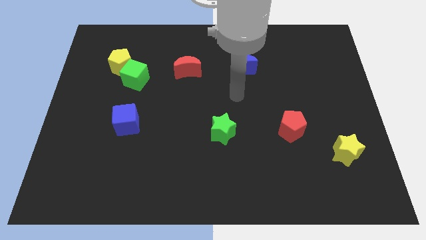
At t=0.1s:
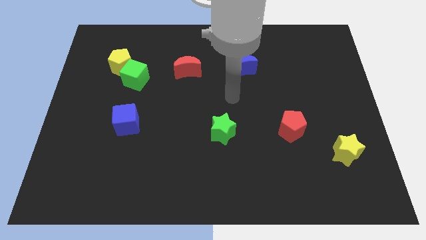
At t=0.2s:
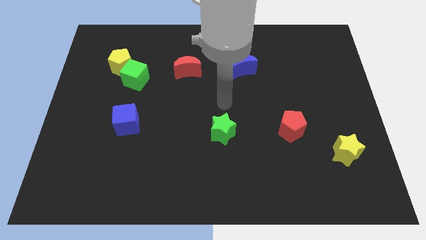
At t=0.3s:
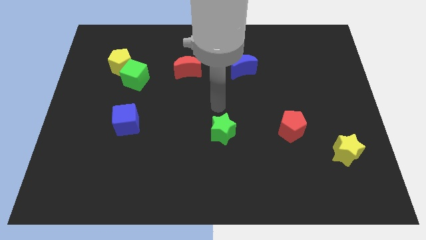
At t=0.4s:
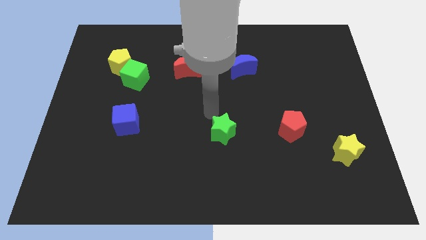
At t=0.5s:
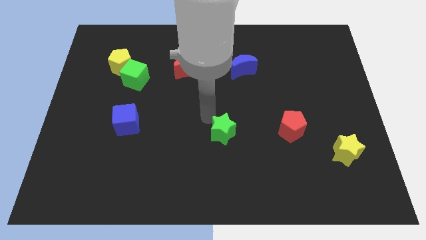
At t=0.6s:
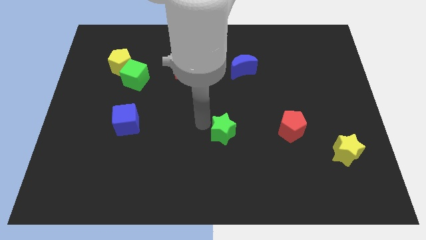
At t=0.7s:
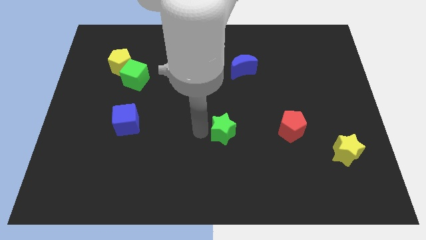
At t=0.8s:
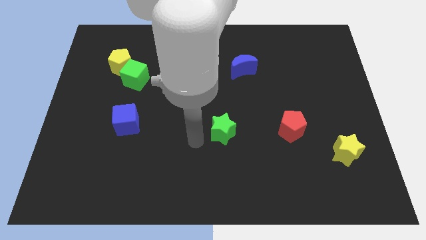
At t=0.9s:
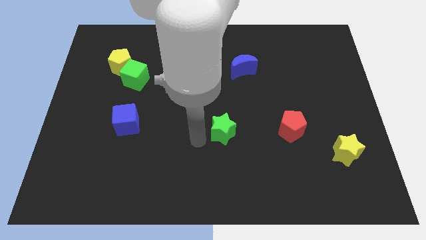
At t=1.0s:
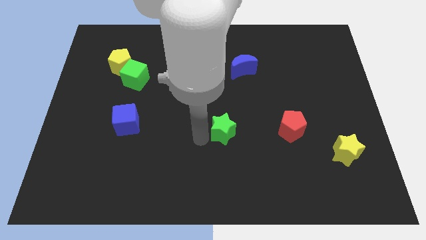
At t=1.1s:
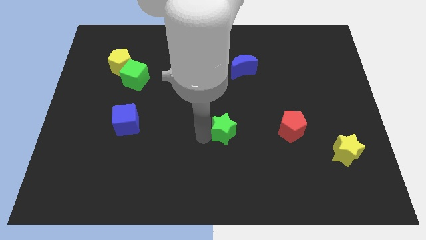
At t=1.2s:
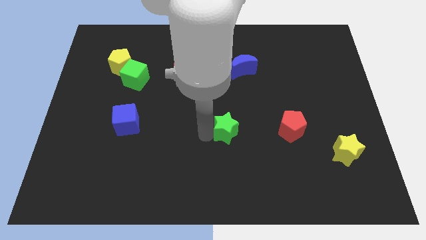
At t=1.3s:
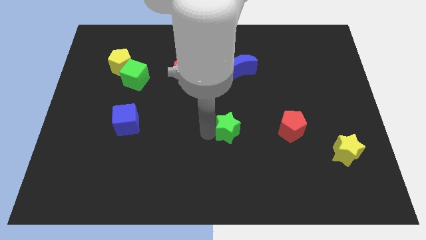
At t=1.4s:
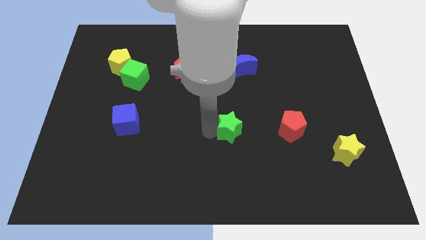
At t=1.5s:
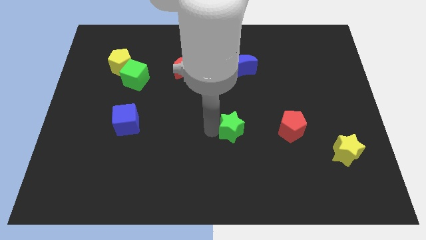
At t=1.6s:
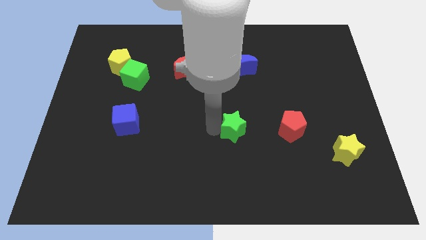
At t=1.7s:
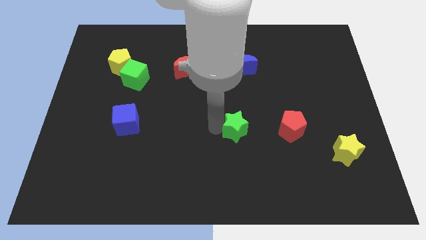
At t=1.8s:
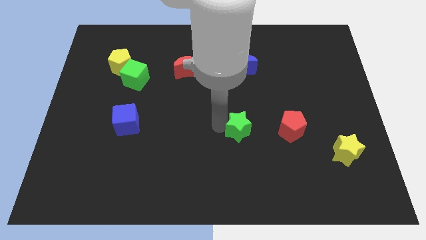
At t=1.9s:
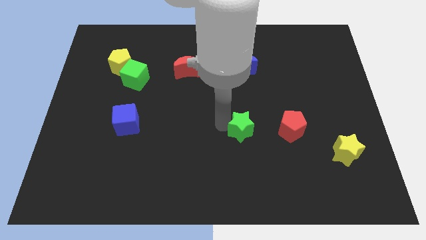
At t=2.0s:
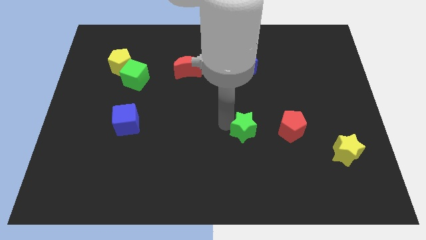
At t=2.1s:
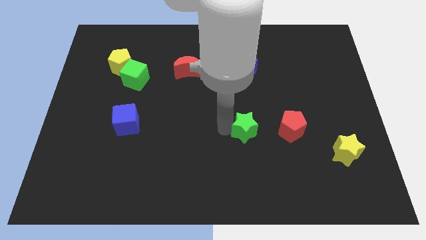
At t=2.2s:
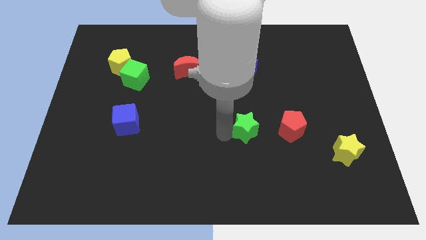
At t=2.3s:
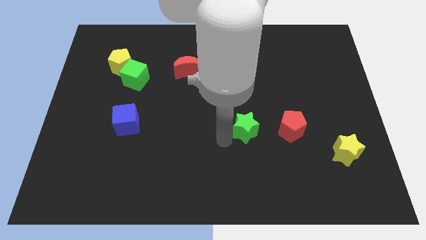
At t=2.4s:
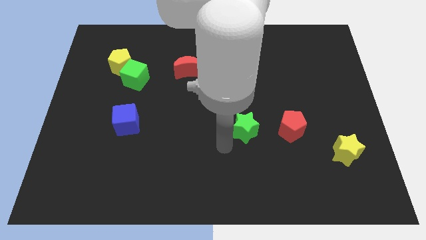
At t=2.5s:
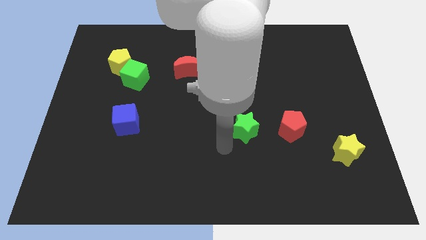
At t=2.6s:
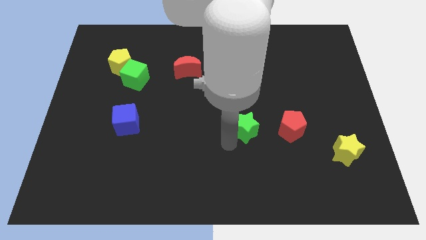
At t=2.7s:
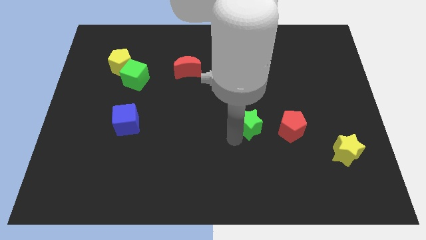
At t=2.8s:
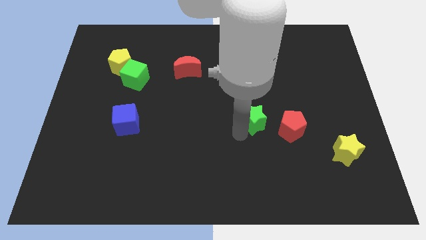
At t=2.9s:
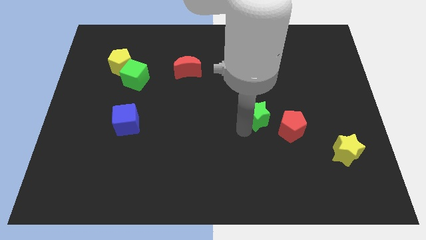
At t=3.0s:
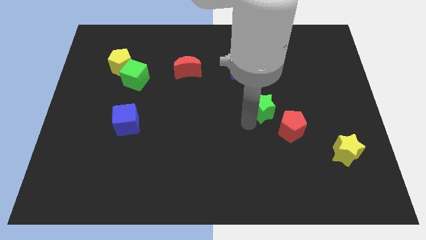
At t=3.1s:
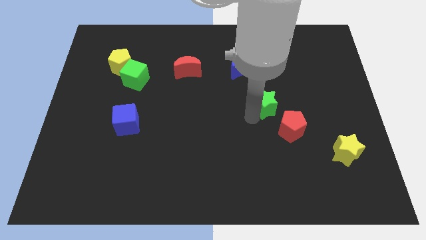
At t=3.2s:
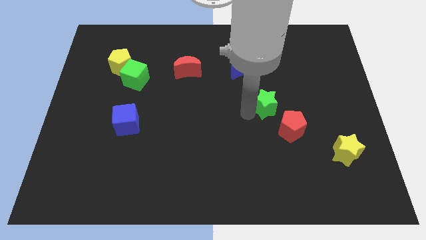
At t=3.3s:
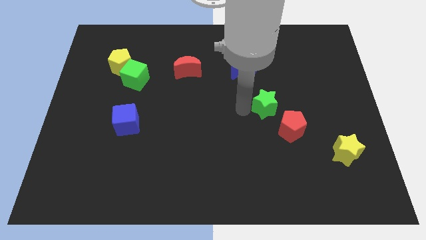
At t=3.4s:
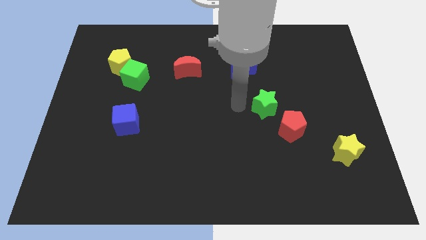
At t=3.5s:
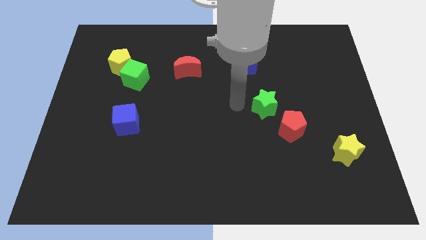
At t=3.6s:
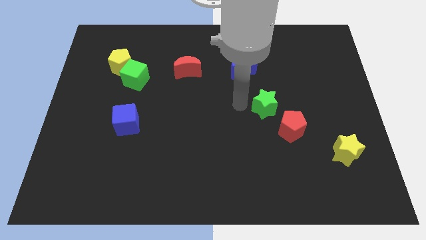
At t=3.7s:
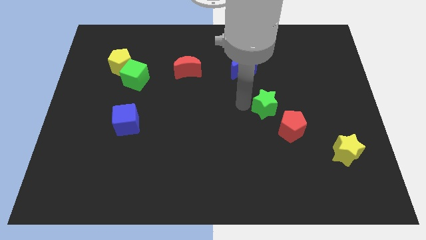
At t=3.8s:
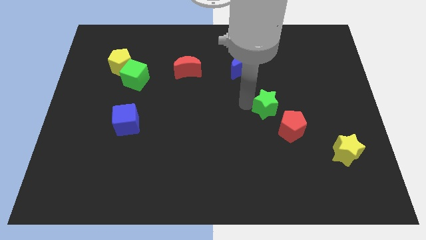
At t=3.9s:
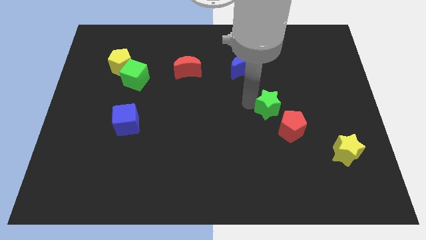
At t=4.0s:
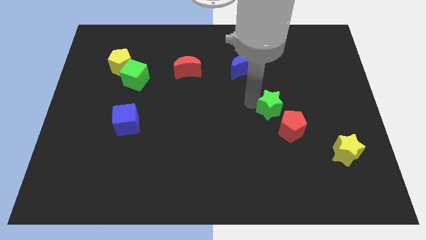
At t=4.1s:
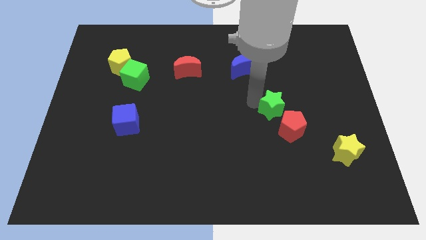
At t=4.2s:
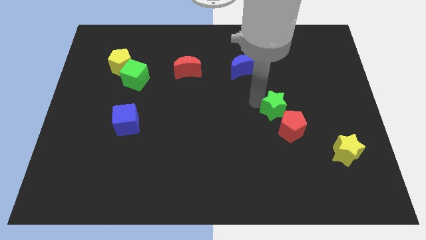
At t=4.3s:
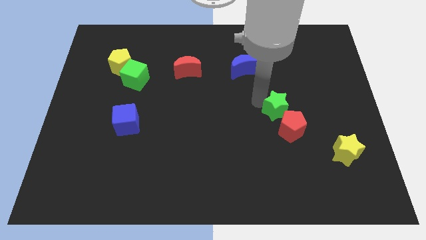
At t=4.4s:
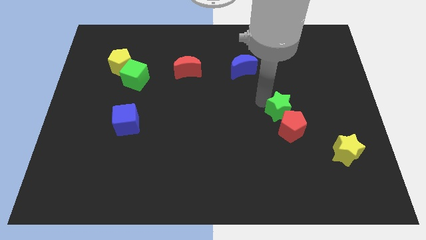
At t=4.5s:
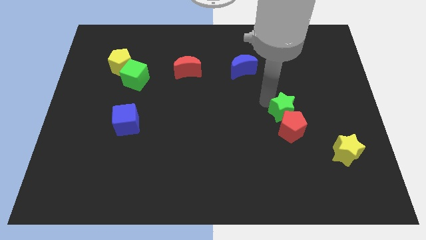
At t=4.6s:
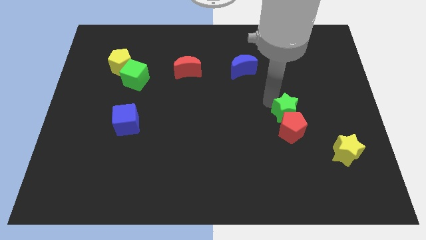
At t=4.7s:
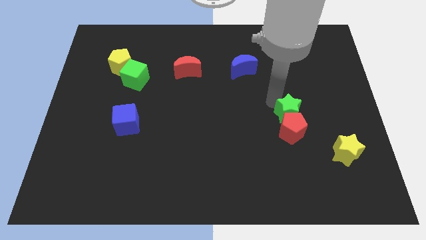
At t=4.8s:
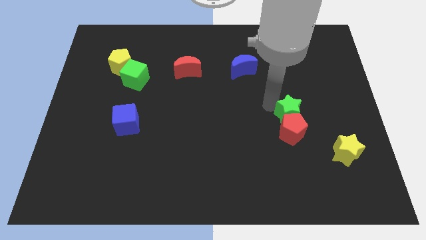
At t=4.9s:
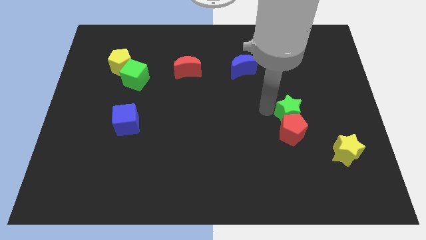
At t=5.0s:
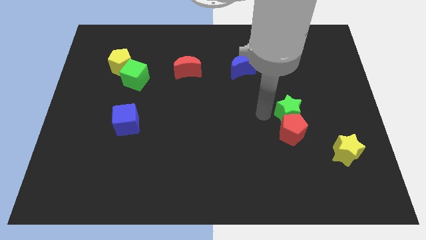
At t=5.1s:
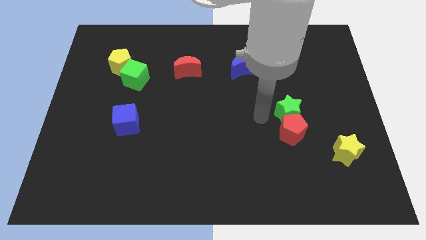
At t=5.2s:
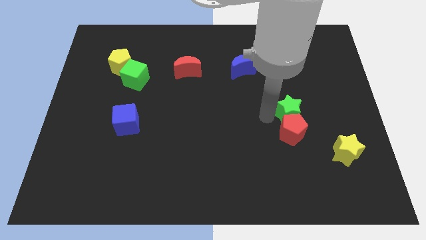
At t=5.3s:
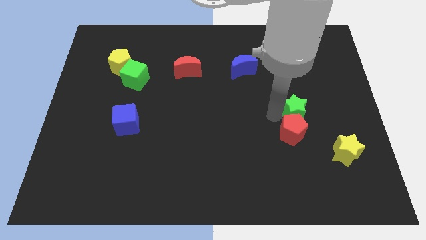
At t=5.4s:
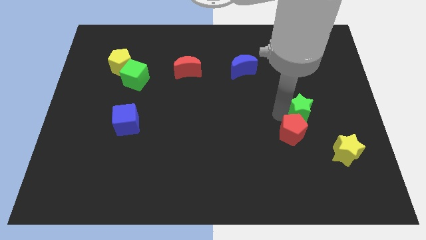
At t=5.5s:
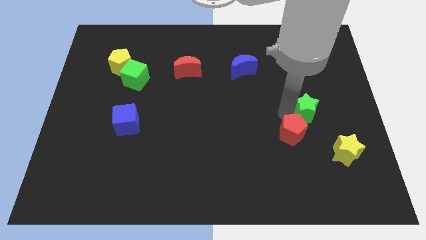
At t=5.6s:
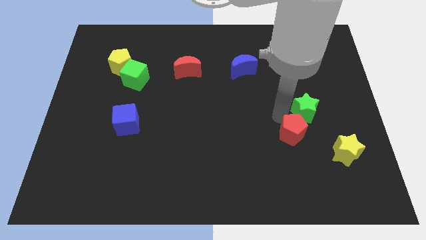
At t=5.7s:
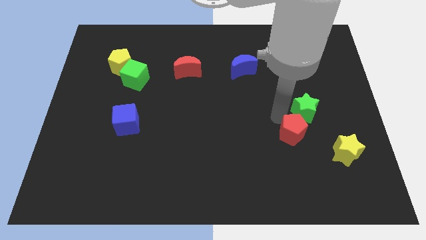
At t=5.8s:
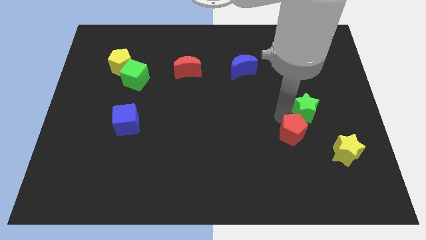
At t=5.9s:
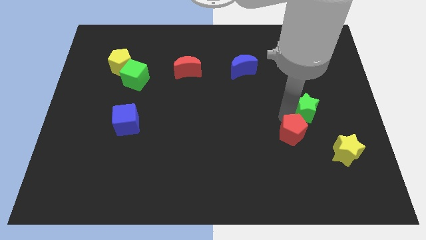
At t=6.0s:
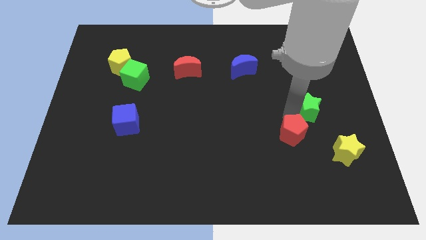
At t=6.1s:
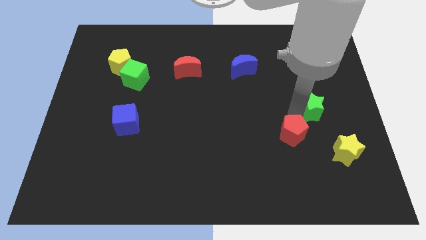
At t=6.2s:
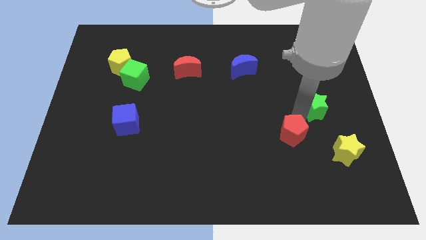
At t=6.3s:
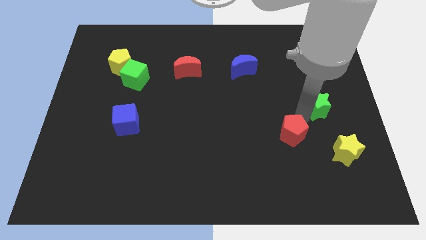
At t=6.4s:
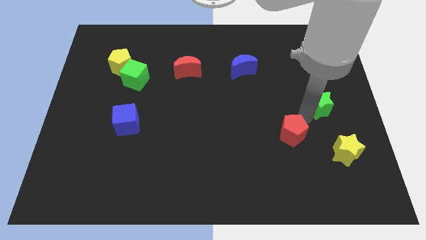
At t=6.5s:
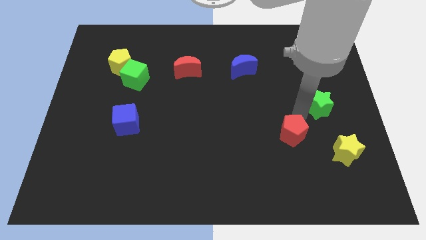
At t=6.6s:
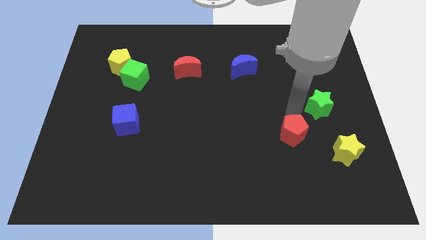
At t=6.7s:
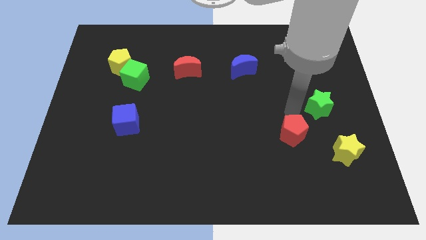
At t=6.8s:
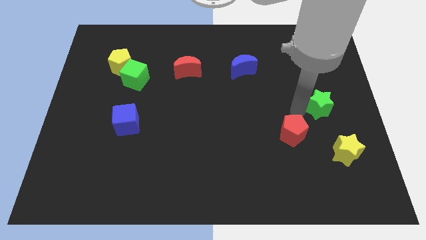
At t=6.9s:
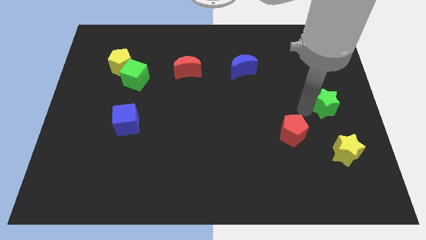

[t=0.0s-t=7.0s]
put the green star to the right side

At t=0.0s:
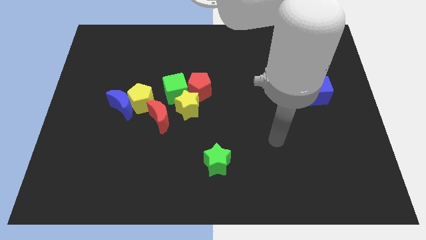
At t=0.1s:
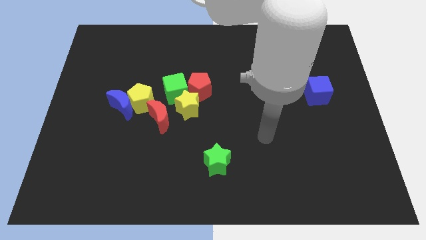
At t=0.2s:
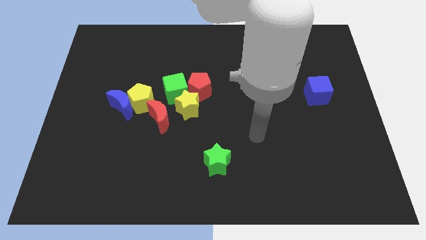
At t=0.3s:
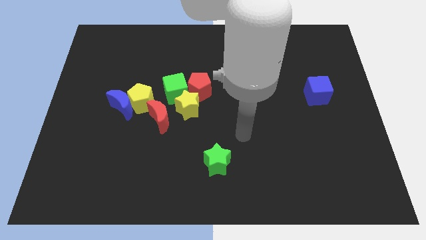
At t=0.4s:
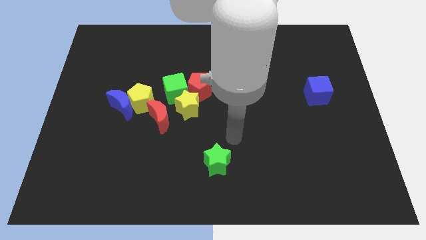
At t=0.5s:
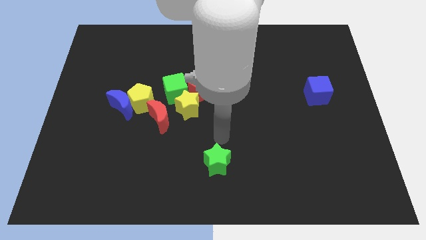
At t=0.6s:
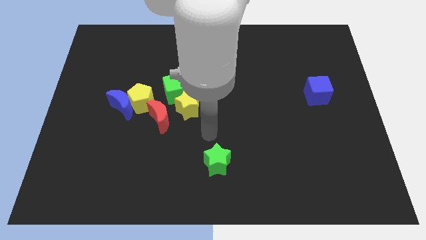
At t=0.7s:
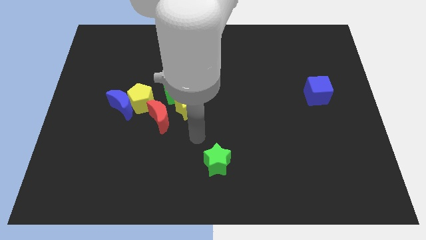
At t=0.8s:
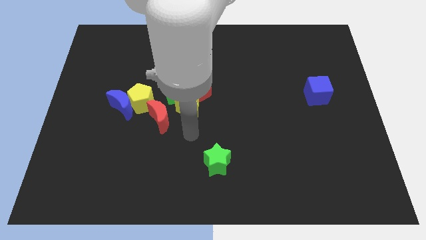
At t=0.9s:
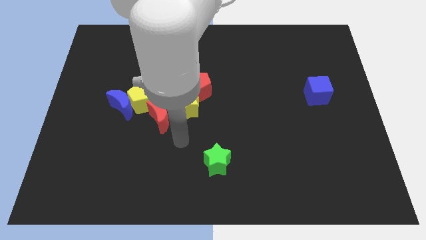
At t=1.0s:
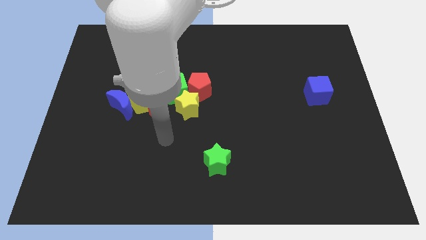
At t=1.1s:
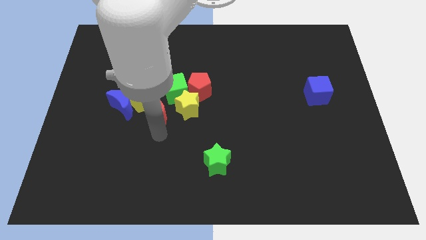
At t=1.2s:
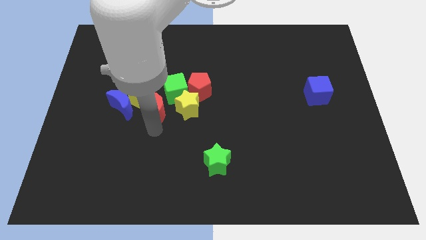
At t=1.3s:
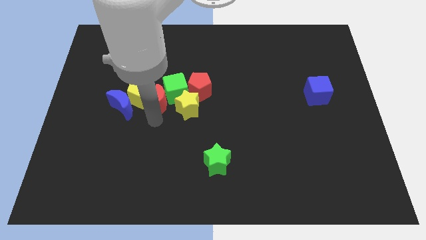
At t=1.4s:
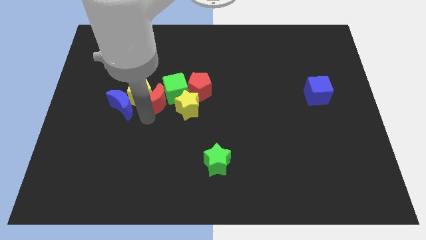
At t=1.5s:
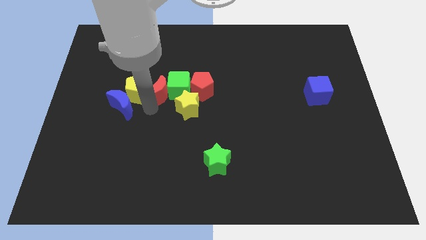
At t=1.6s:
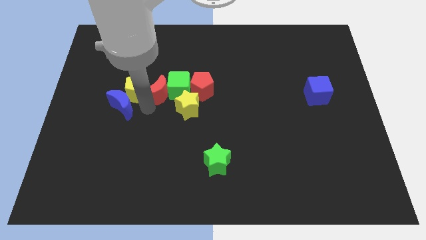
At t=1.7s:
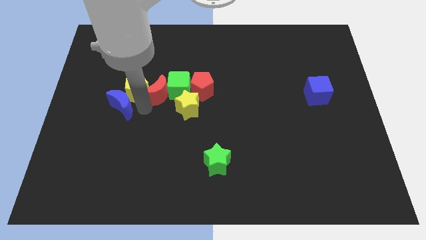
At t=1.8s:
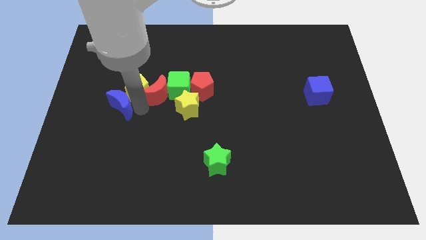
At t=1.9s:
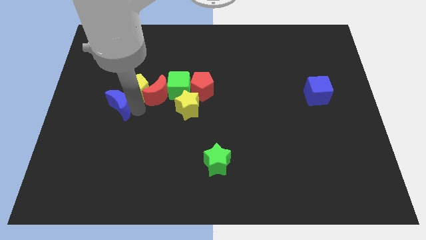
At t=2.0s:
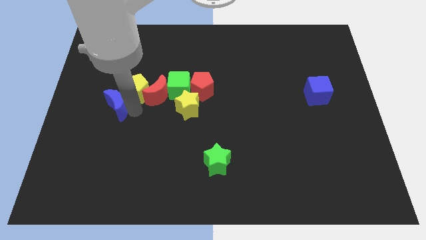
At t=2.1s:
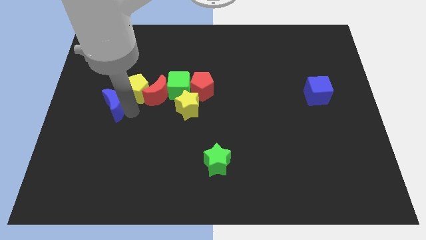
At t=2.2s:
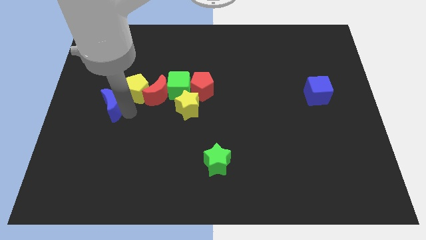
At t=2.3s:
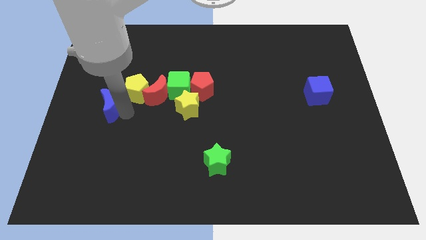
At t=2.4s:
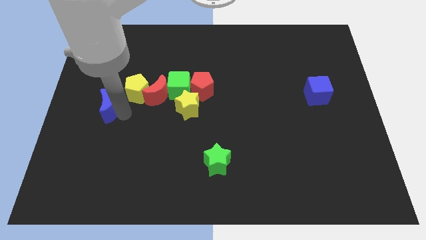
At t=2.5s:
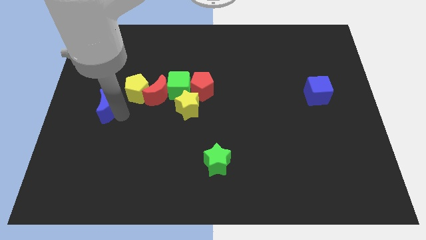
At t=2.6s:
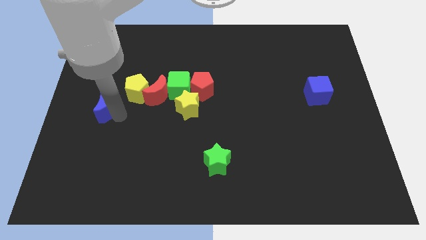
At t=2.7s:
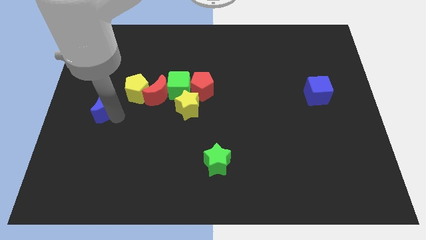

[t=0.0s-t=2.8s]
move the blue moon to the center left
